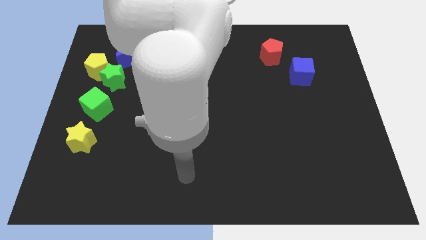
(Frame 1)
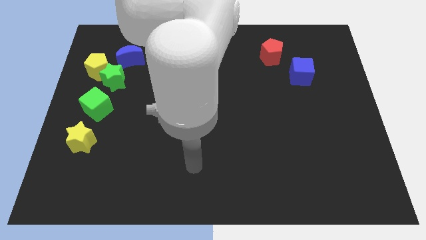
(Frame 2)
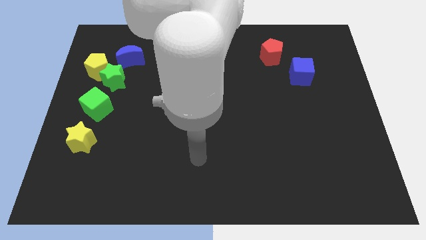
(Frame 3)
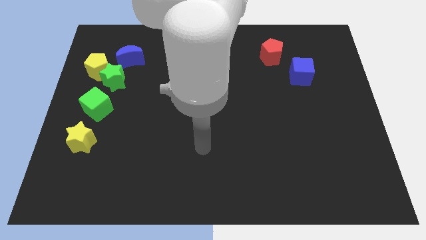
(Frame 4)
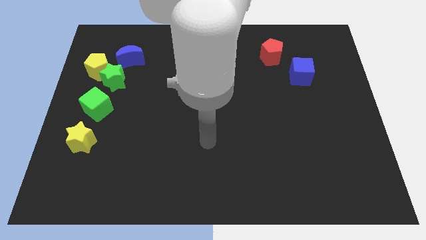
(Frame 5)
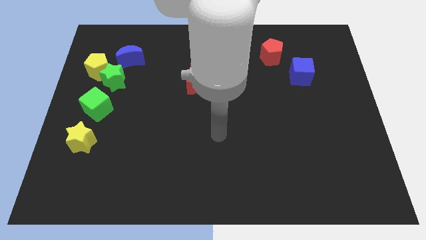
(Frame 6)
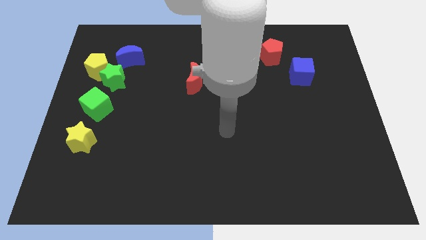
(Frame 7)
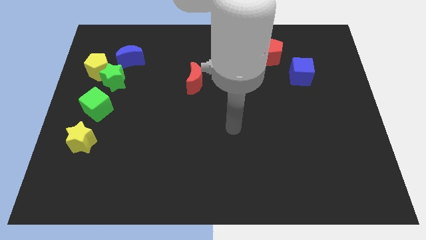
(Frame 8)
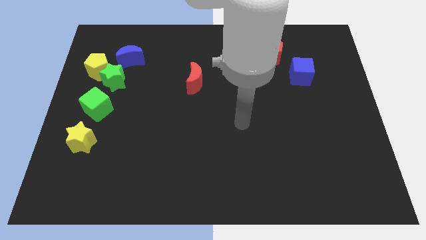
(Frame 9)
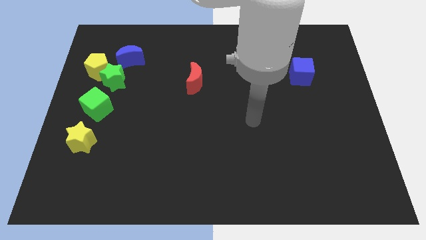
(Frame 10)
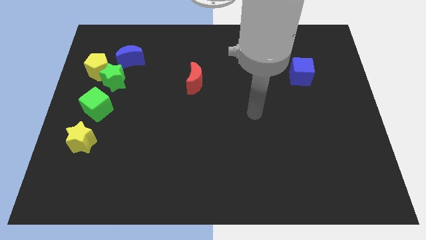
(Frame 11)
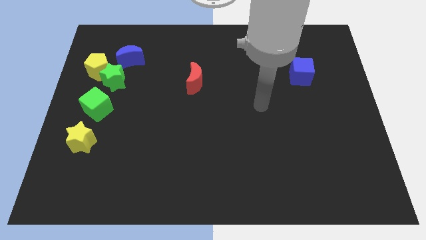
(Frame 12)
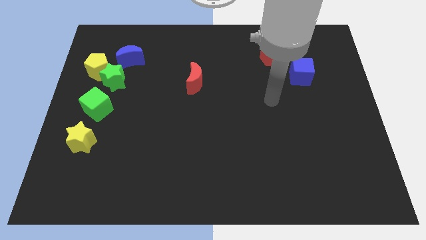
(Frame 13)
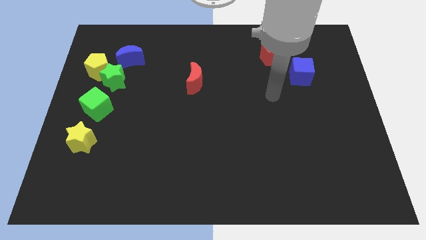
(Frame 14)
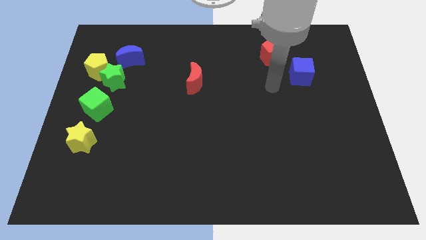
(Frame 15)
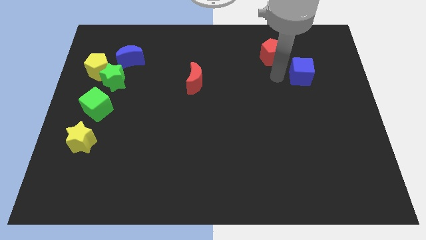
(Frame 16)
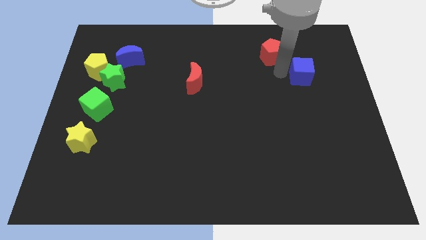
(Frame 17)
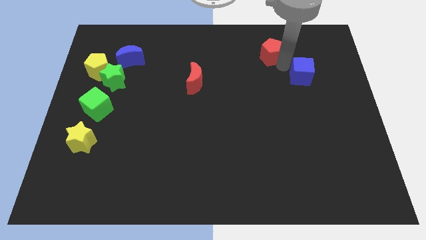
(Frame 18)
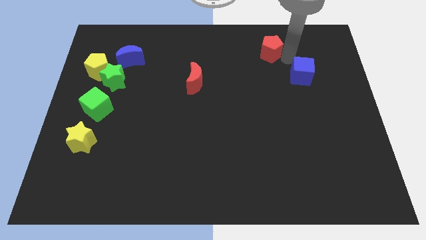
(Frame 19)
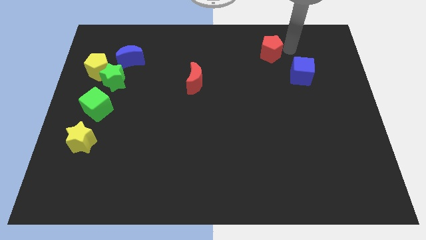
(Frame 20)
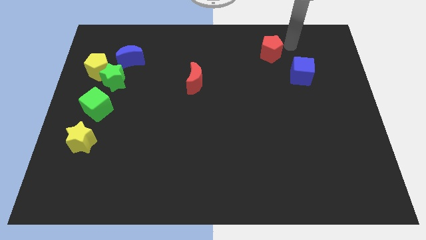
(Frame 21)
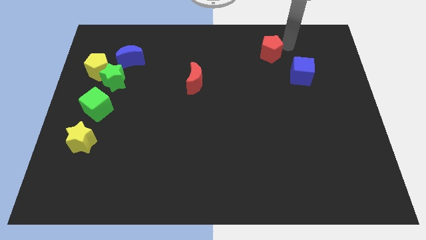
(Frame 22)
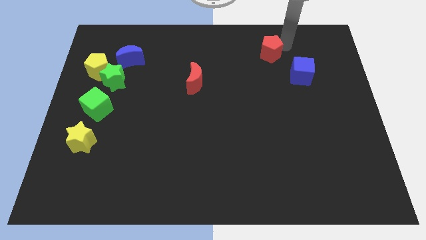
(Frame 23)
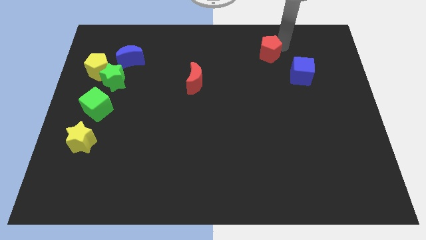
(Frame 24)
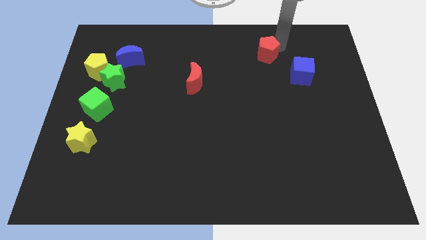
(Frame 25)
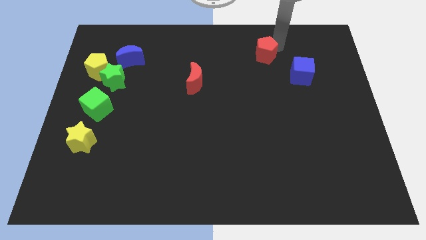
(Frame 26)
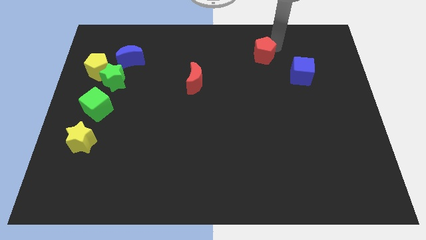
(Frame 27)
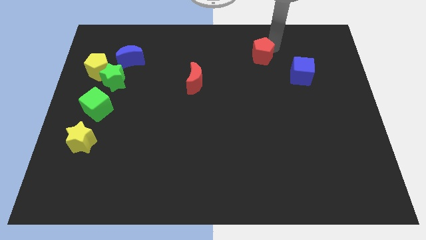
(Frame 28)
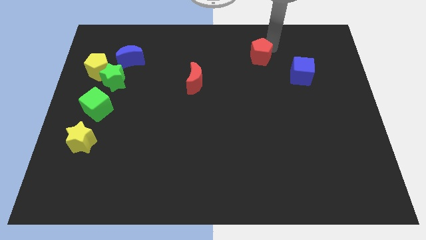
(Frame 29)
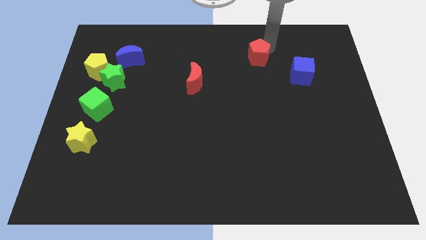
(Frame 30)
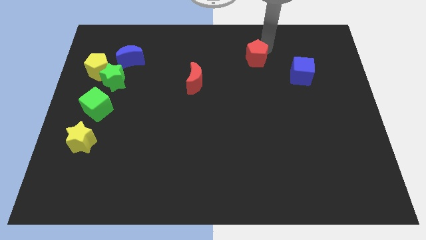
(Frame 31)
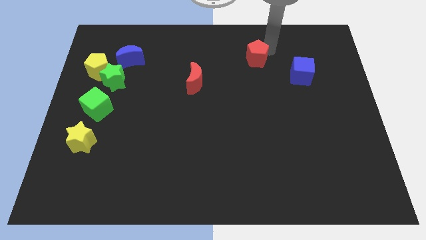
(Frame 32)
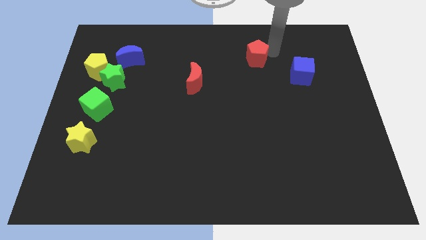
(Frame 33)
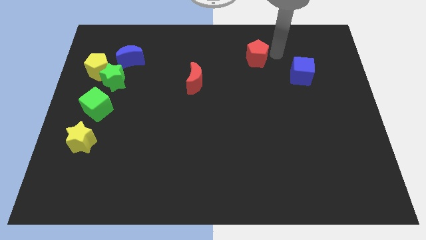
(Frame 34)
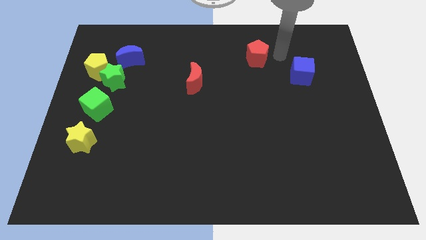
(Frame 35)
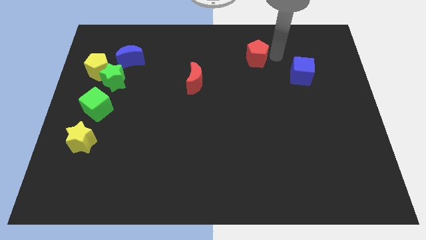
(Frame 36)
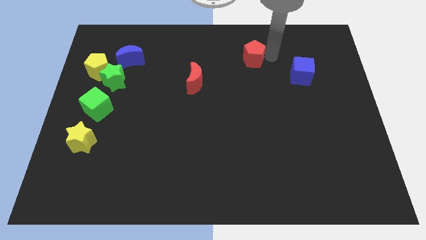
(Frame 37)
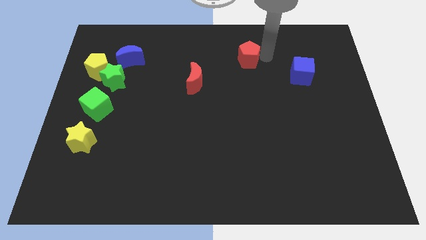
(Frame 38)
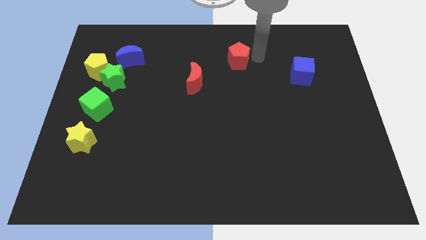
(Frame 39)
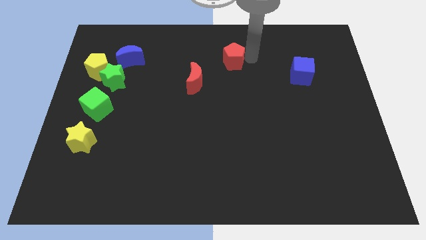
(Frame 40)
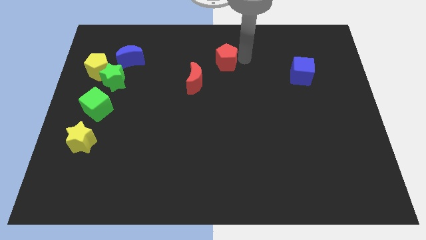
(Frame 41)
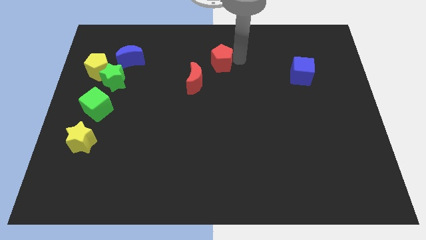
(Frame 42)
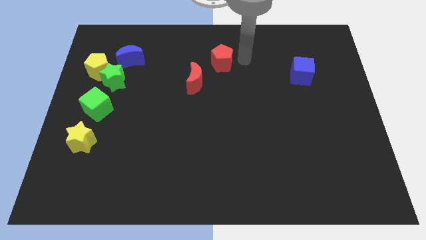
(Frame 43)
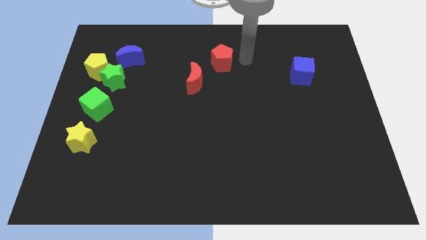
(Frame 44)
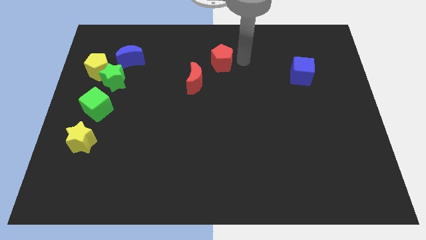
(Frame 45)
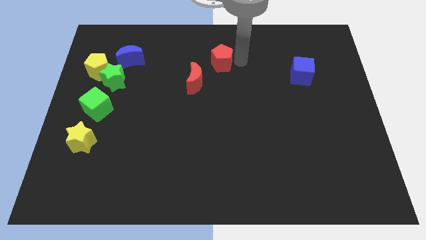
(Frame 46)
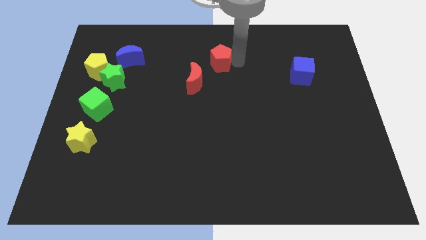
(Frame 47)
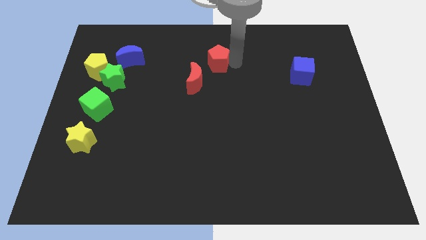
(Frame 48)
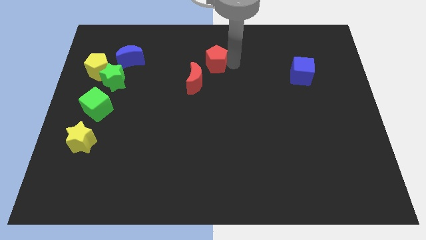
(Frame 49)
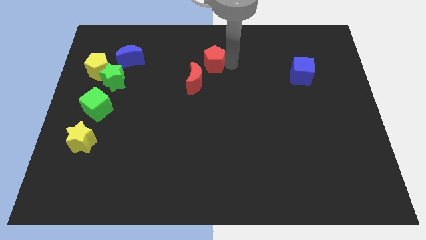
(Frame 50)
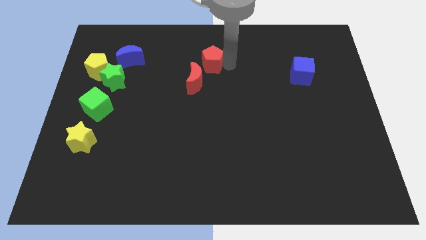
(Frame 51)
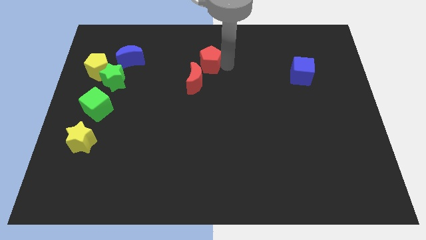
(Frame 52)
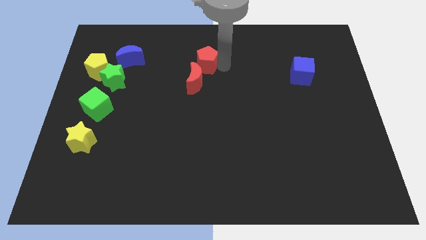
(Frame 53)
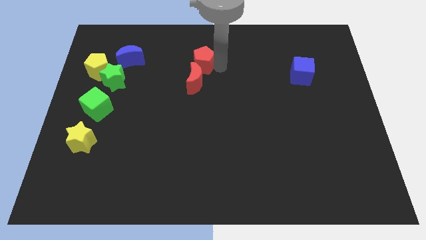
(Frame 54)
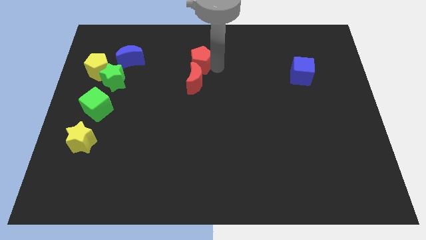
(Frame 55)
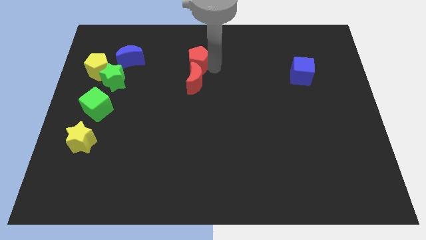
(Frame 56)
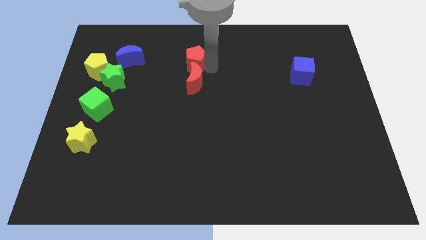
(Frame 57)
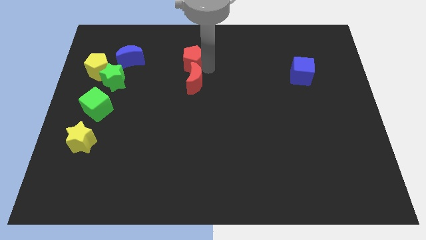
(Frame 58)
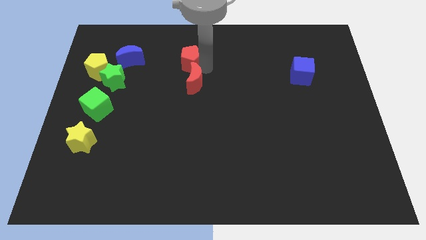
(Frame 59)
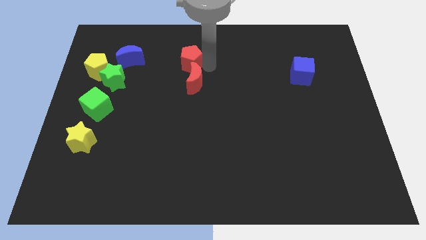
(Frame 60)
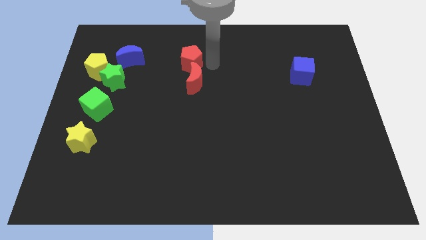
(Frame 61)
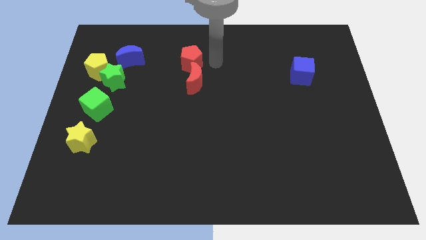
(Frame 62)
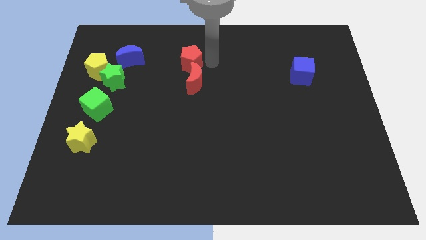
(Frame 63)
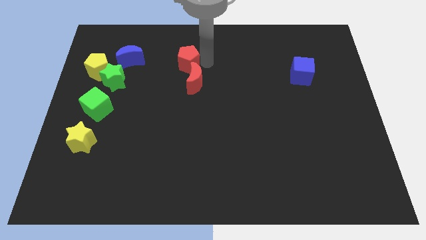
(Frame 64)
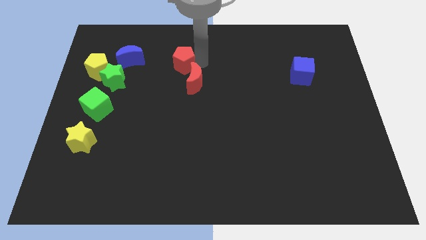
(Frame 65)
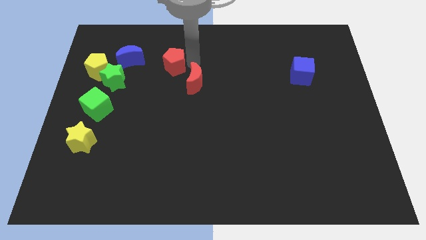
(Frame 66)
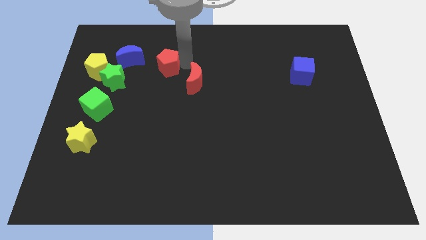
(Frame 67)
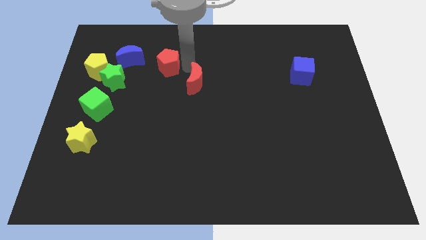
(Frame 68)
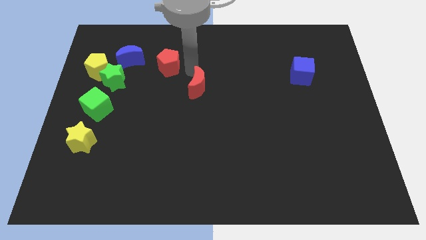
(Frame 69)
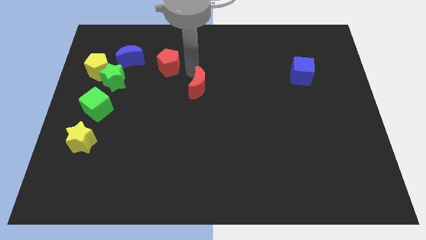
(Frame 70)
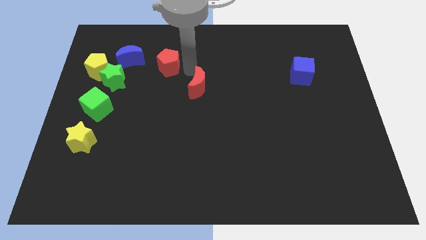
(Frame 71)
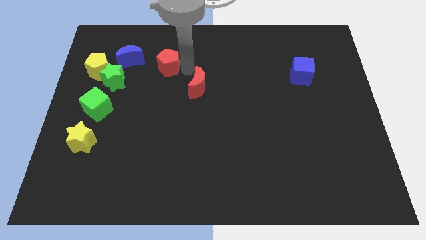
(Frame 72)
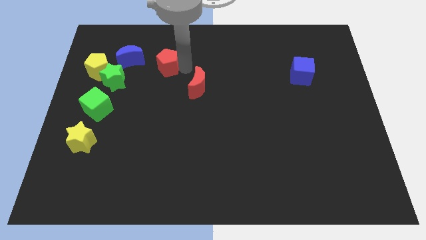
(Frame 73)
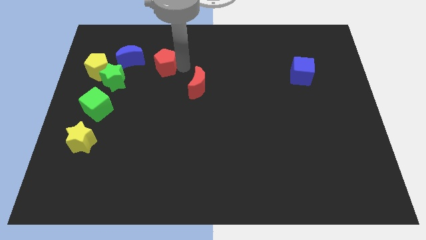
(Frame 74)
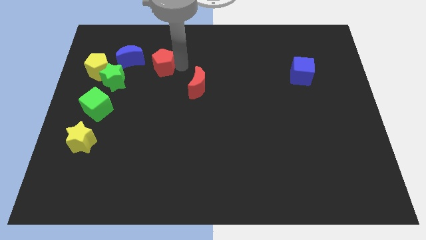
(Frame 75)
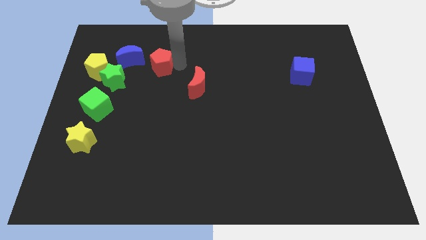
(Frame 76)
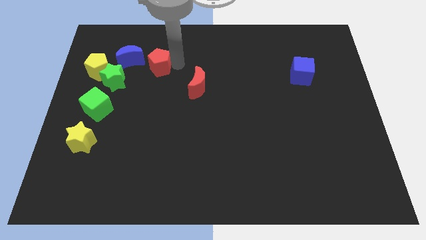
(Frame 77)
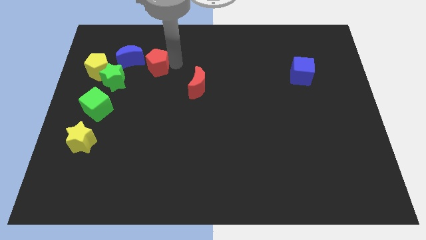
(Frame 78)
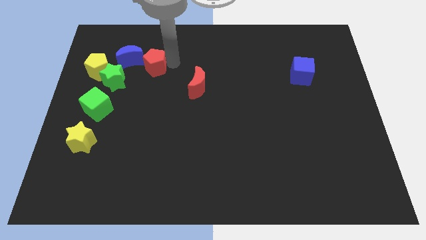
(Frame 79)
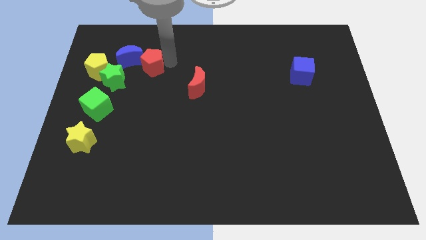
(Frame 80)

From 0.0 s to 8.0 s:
push the red pentagon next to the blue moon
